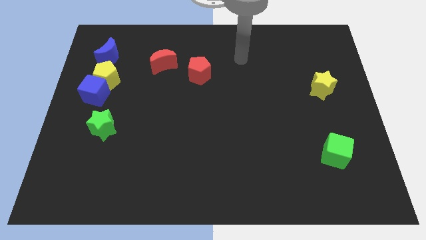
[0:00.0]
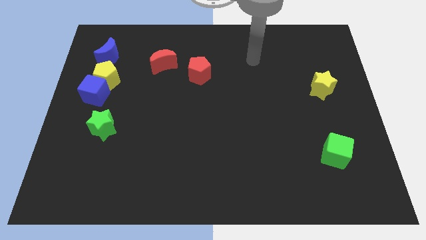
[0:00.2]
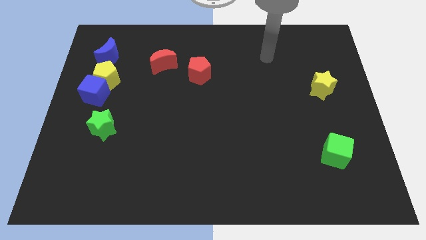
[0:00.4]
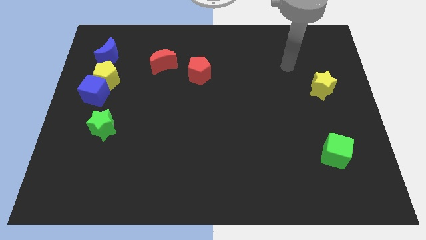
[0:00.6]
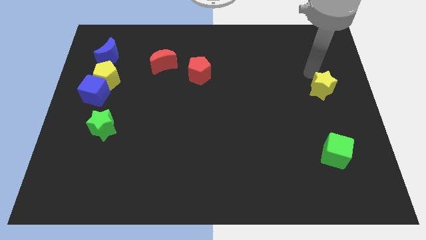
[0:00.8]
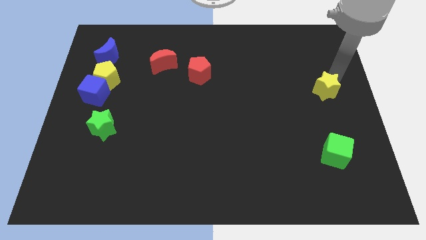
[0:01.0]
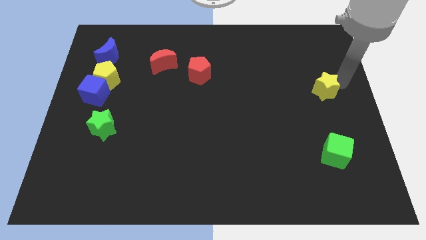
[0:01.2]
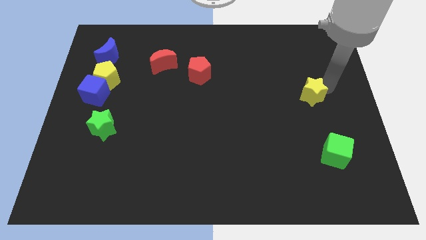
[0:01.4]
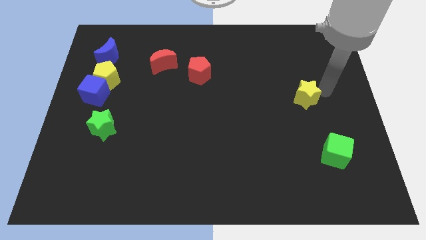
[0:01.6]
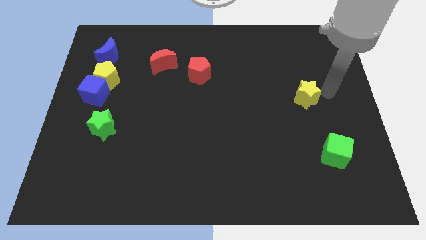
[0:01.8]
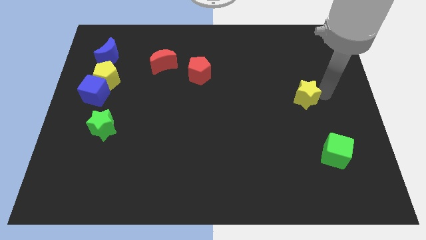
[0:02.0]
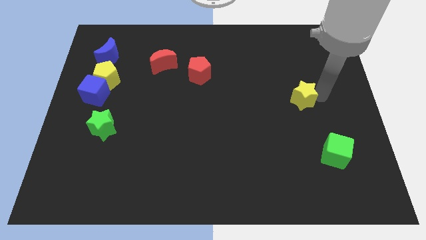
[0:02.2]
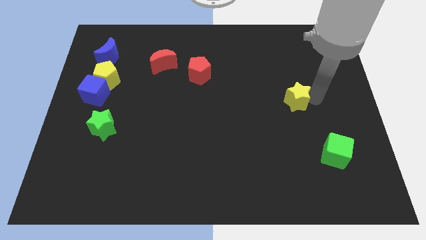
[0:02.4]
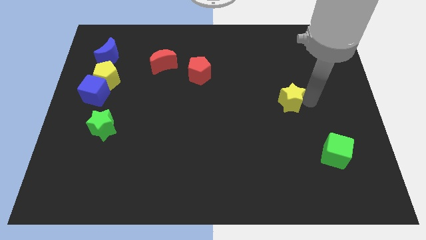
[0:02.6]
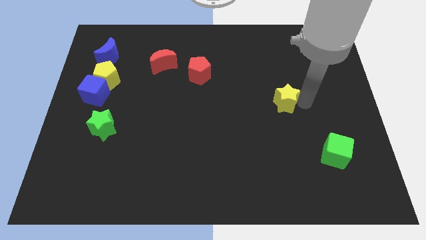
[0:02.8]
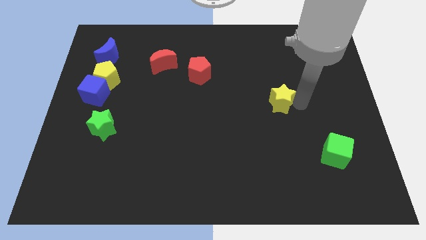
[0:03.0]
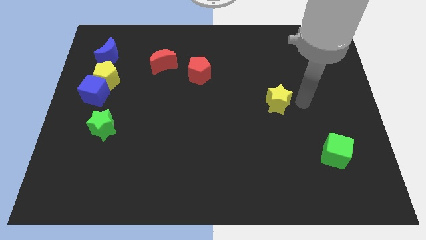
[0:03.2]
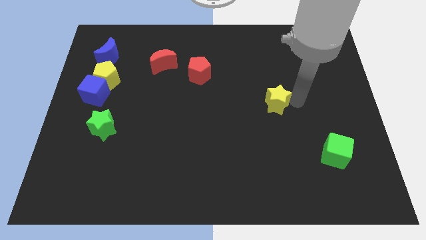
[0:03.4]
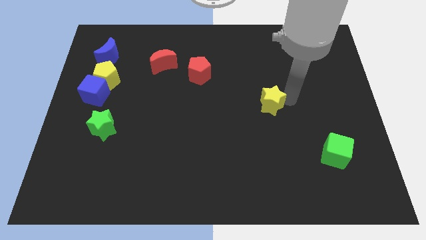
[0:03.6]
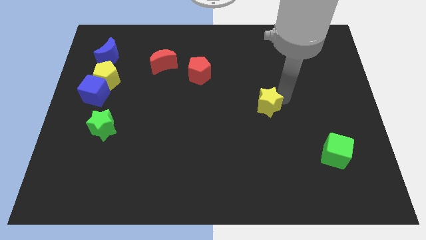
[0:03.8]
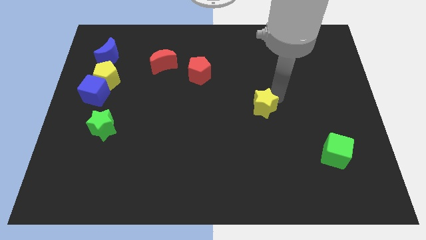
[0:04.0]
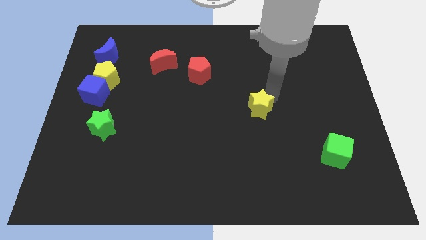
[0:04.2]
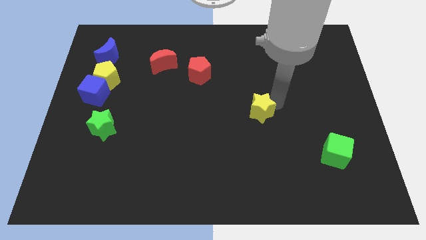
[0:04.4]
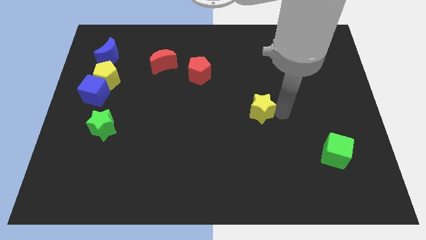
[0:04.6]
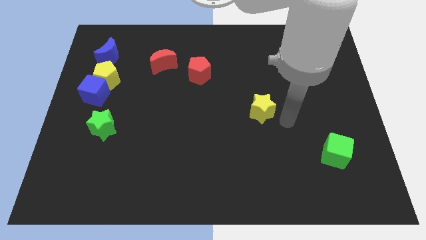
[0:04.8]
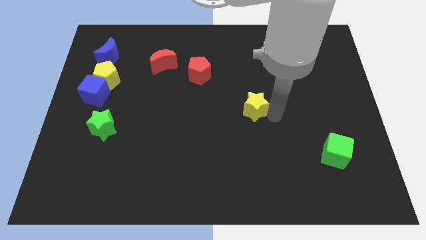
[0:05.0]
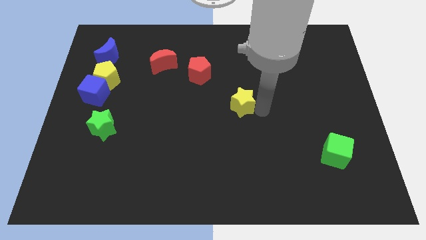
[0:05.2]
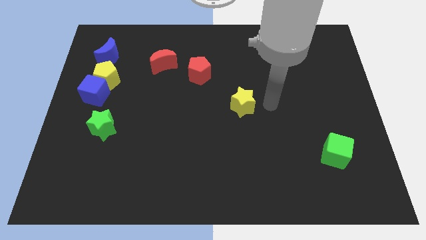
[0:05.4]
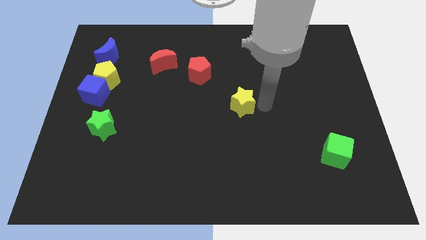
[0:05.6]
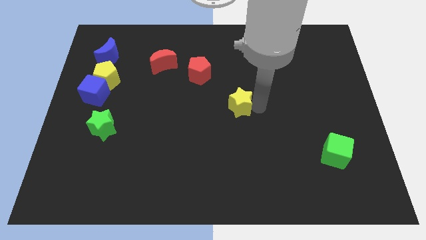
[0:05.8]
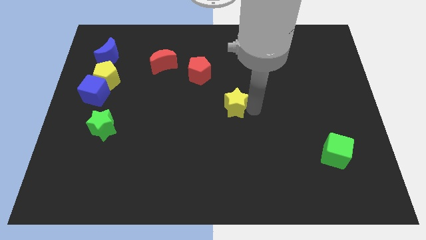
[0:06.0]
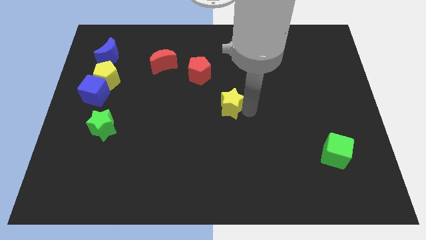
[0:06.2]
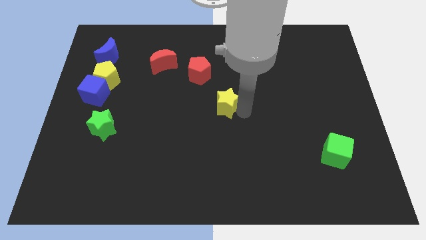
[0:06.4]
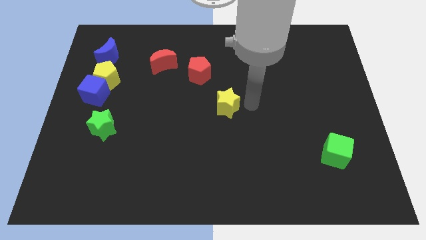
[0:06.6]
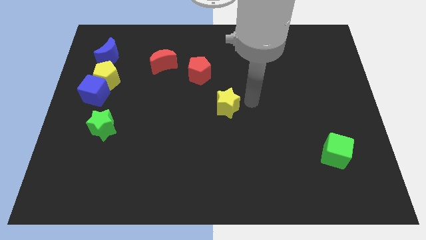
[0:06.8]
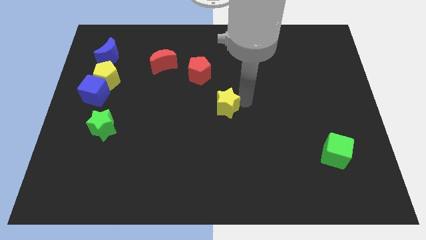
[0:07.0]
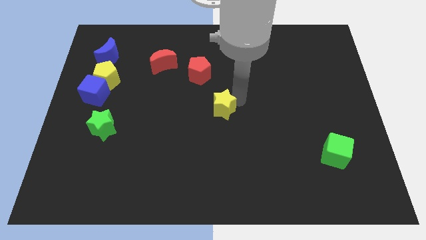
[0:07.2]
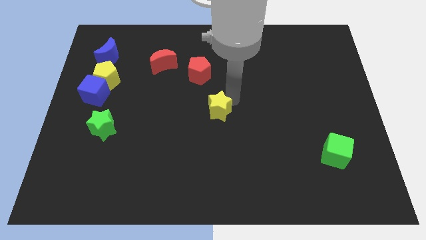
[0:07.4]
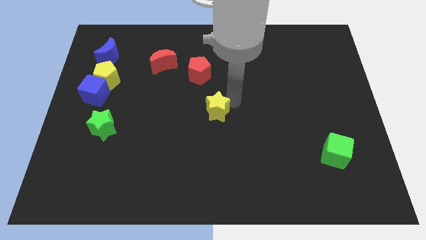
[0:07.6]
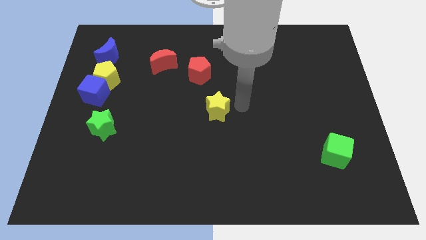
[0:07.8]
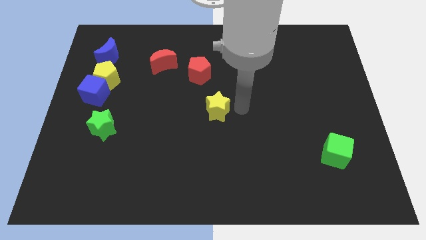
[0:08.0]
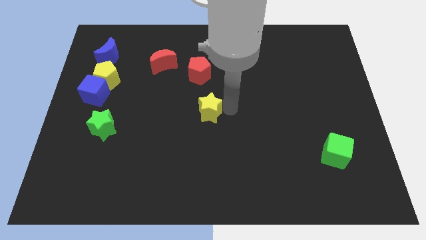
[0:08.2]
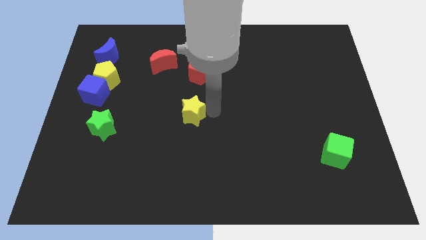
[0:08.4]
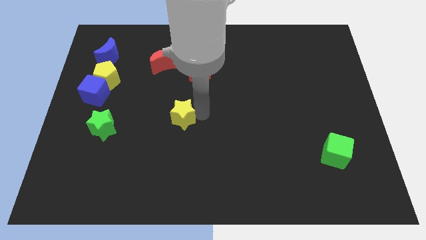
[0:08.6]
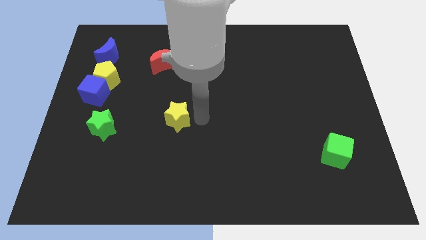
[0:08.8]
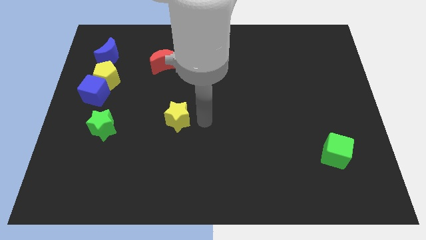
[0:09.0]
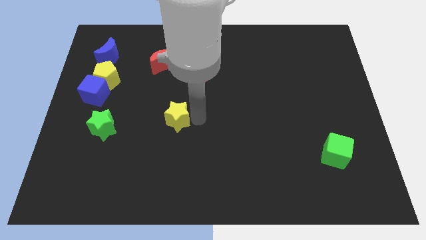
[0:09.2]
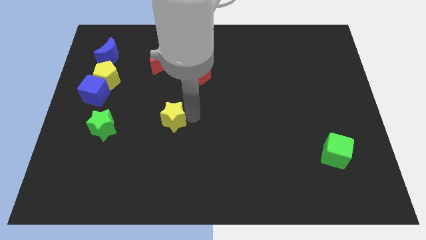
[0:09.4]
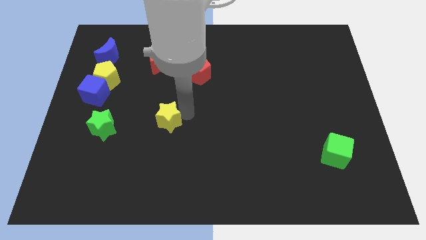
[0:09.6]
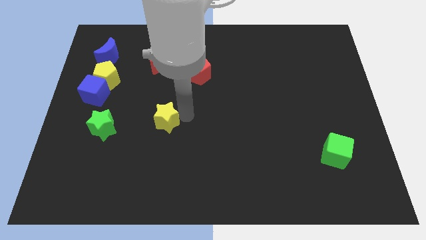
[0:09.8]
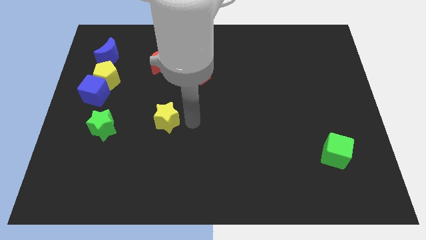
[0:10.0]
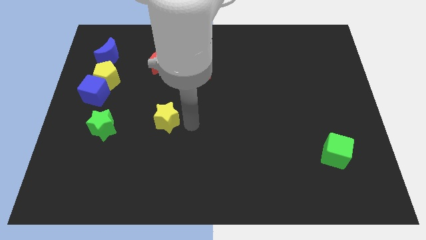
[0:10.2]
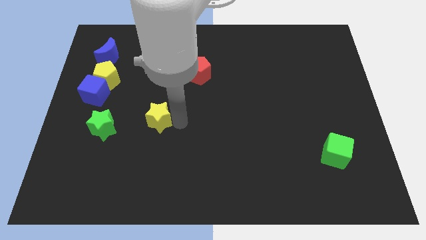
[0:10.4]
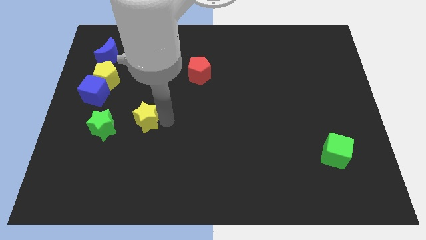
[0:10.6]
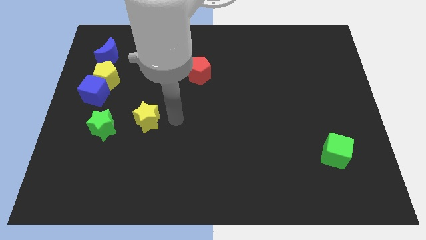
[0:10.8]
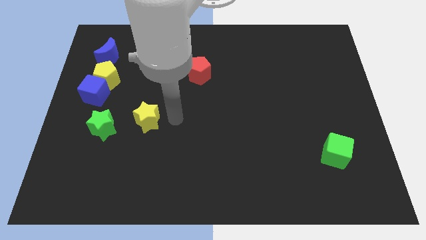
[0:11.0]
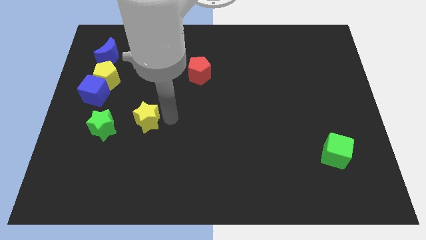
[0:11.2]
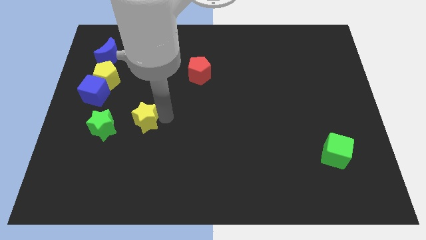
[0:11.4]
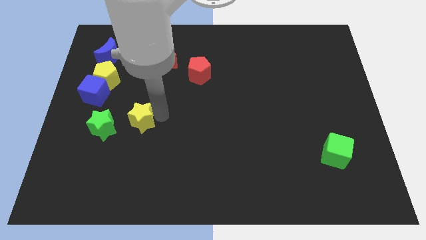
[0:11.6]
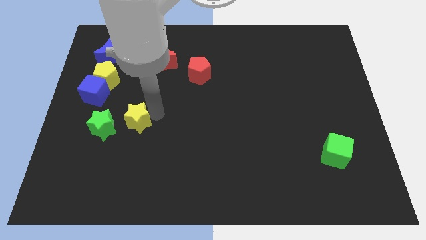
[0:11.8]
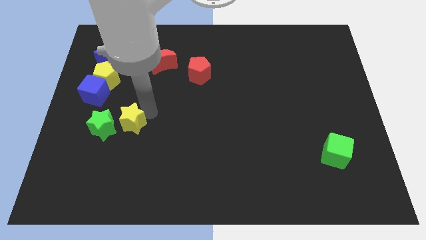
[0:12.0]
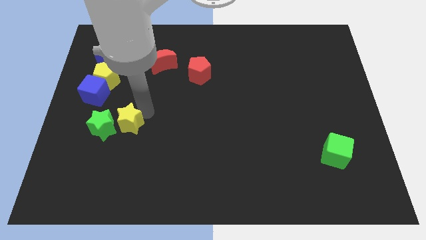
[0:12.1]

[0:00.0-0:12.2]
slide the yellow star towards the green star
